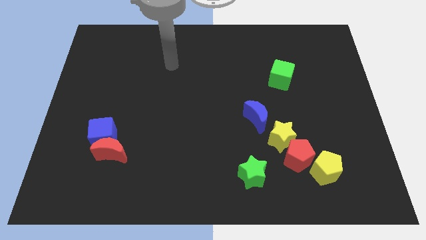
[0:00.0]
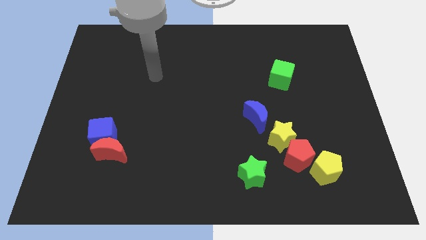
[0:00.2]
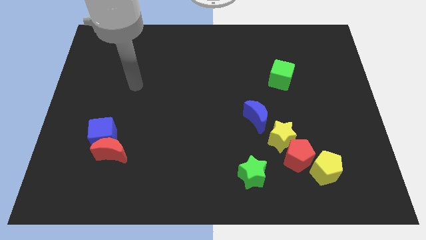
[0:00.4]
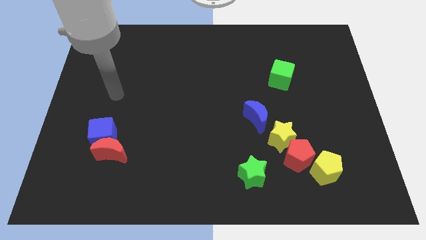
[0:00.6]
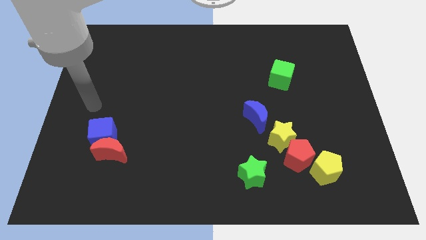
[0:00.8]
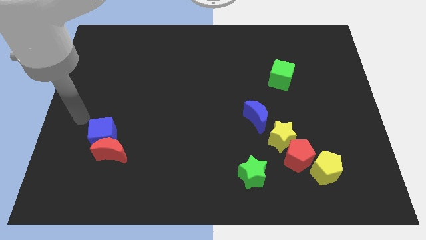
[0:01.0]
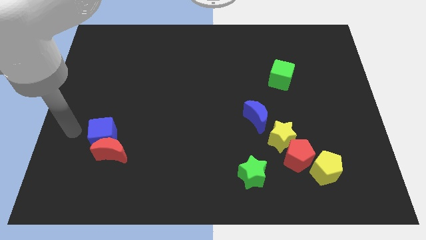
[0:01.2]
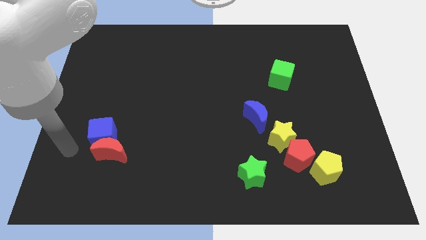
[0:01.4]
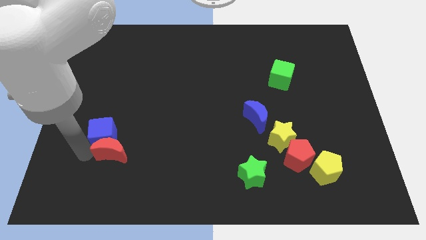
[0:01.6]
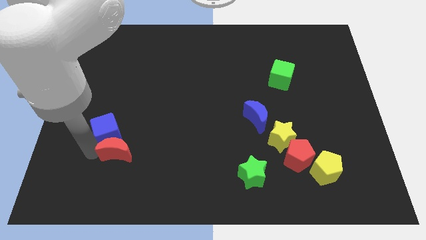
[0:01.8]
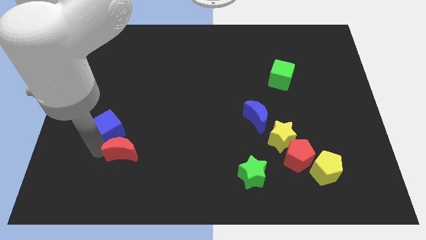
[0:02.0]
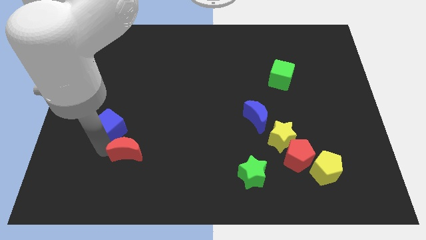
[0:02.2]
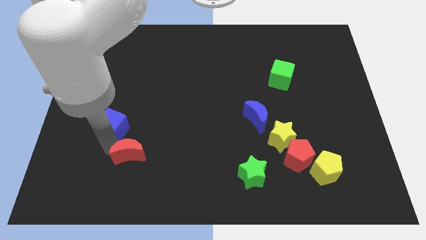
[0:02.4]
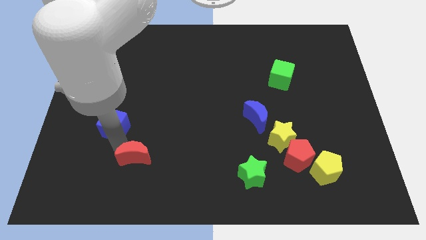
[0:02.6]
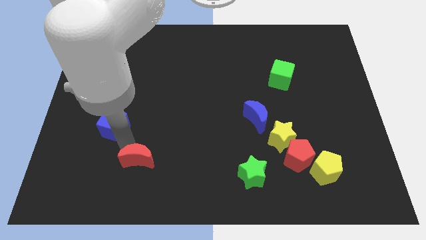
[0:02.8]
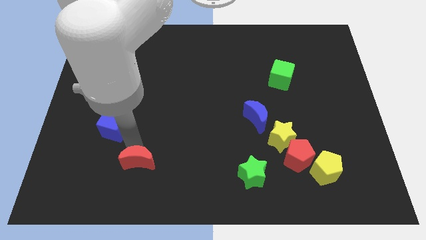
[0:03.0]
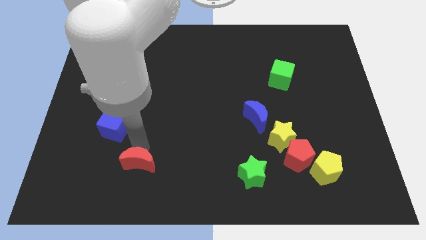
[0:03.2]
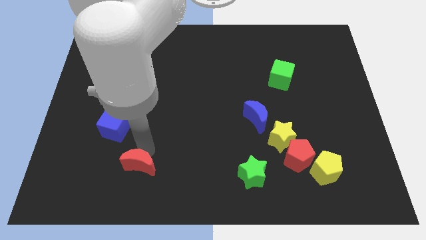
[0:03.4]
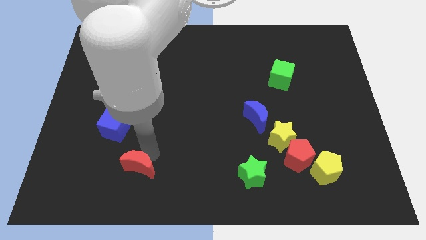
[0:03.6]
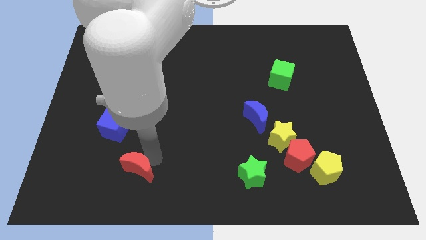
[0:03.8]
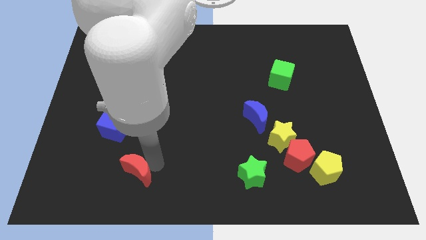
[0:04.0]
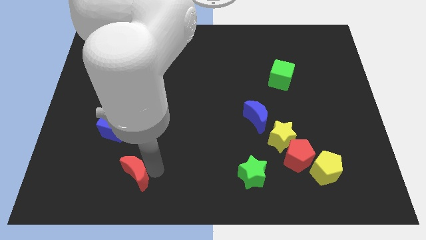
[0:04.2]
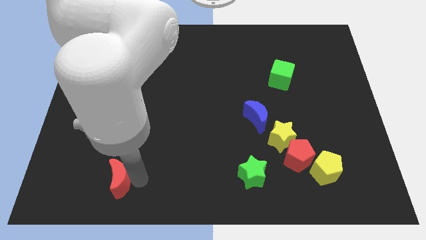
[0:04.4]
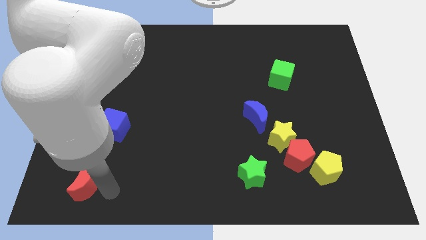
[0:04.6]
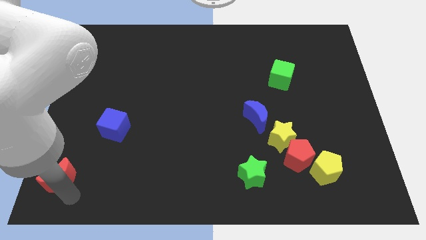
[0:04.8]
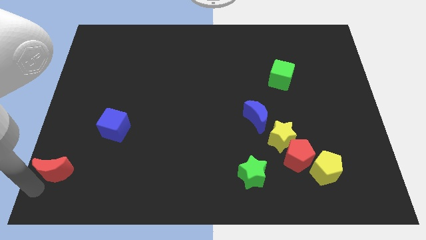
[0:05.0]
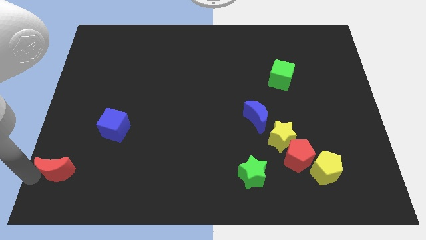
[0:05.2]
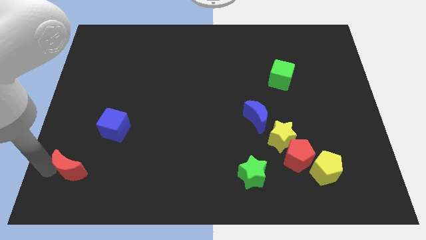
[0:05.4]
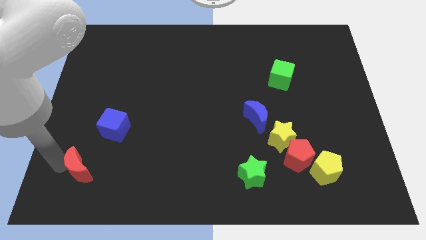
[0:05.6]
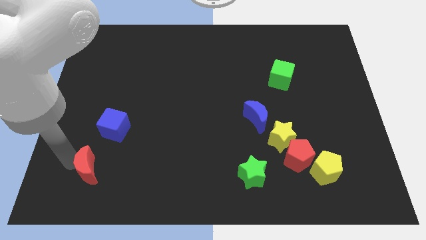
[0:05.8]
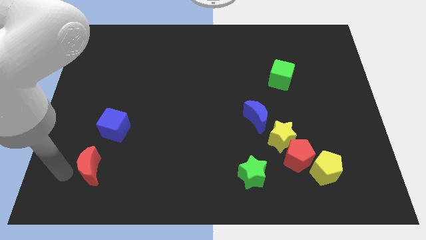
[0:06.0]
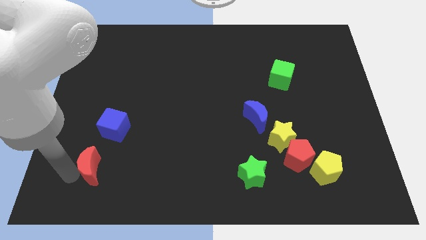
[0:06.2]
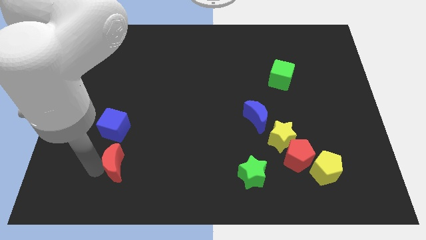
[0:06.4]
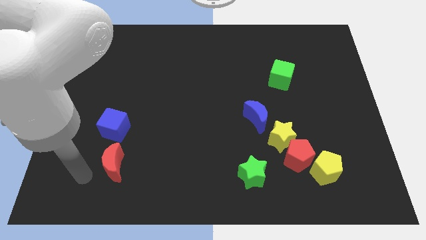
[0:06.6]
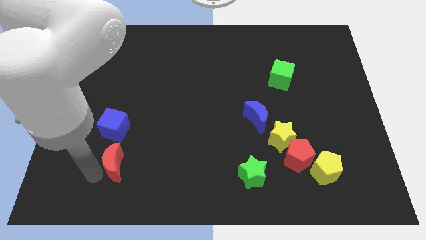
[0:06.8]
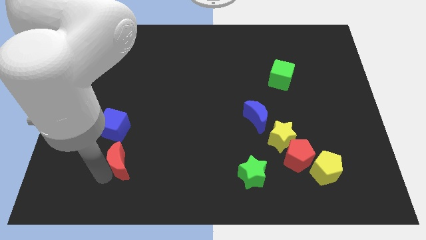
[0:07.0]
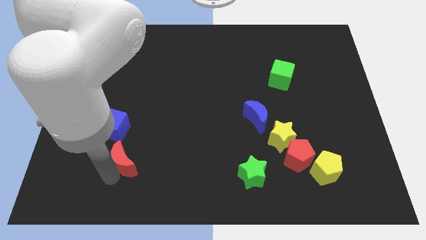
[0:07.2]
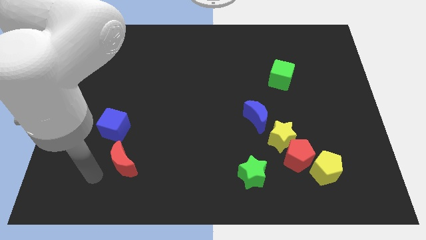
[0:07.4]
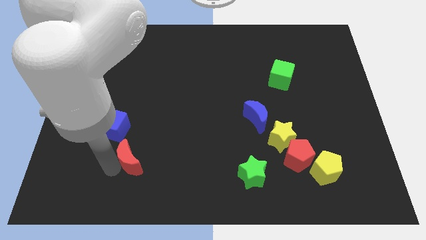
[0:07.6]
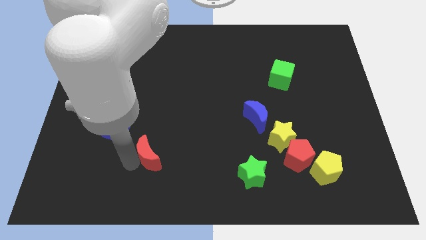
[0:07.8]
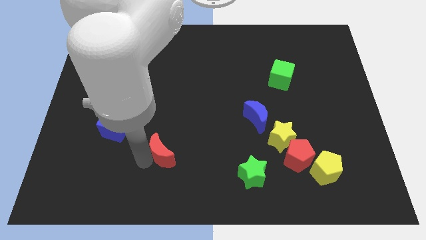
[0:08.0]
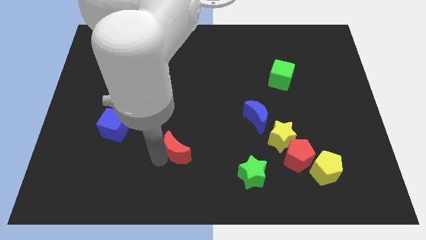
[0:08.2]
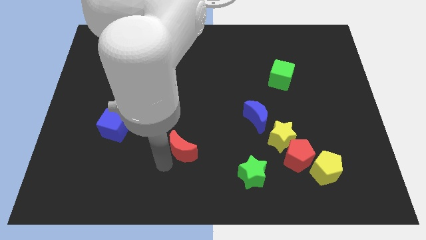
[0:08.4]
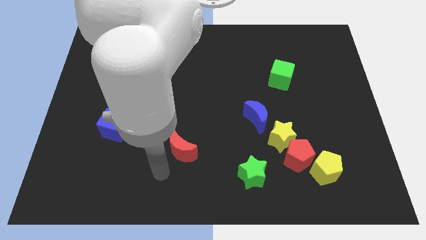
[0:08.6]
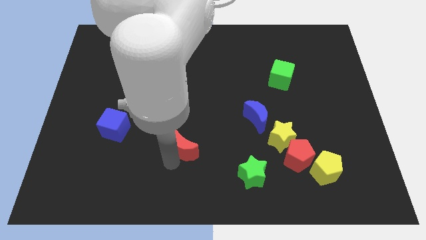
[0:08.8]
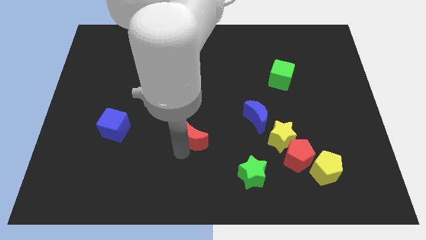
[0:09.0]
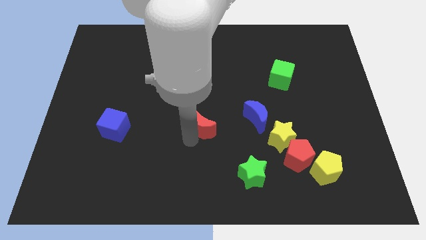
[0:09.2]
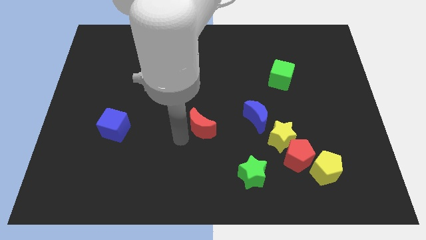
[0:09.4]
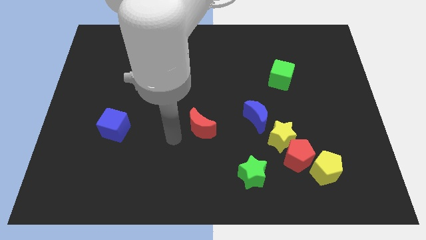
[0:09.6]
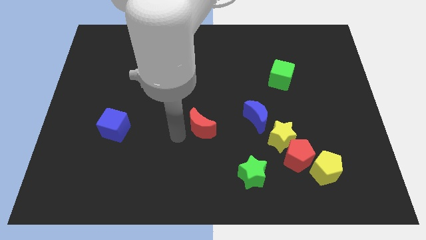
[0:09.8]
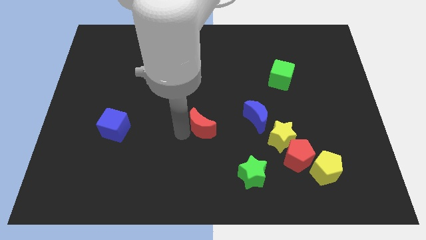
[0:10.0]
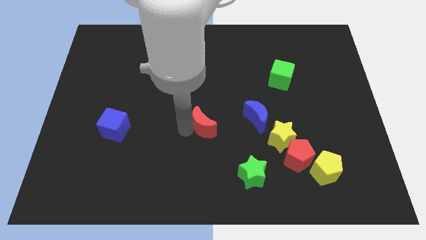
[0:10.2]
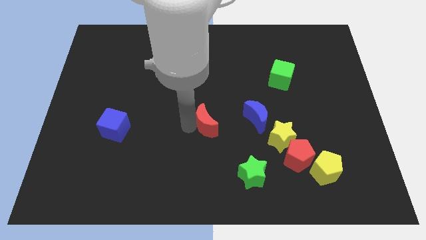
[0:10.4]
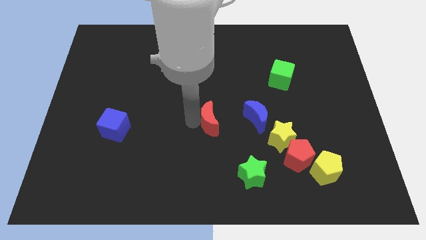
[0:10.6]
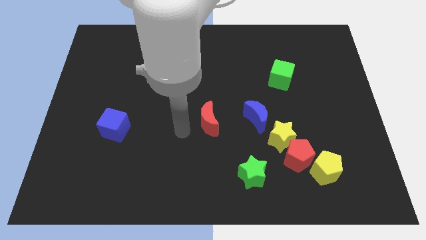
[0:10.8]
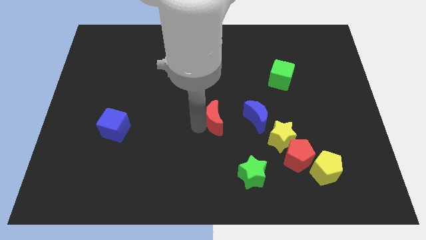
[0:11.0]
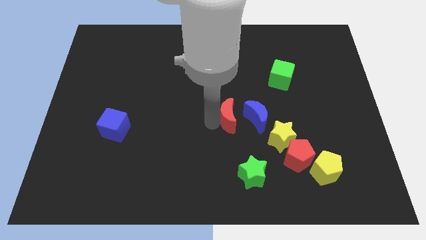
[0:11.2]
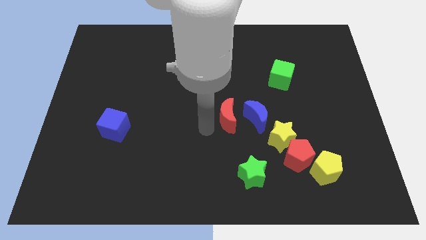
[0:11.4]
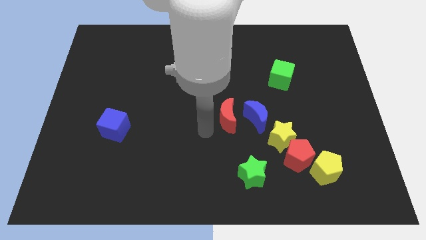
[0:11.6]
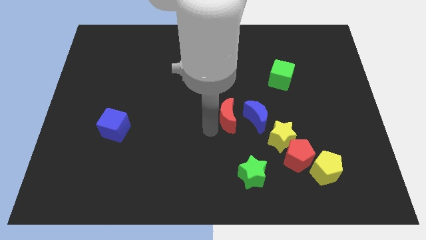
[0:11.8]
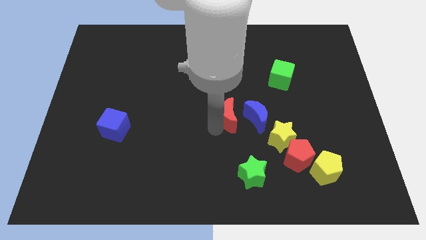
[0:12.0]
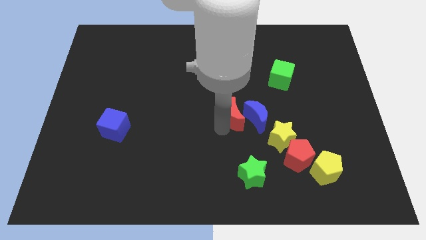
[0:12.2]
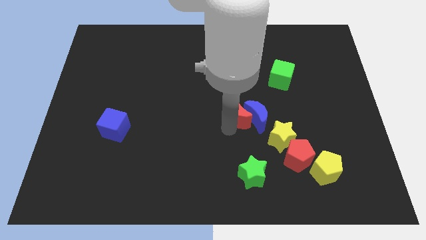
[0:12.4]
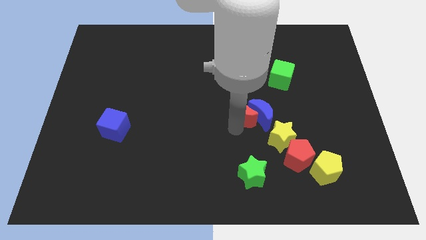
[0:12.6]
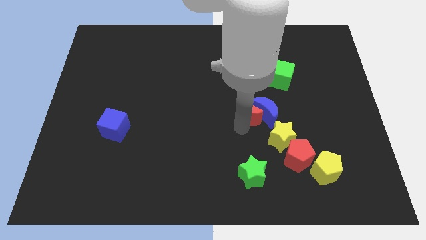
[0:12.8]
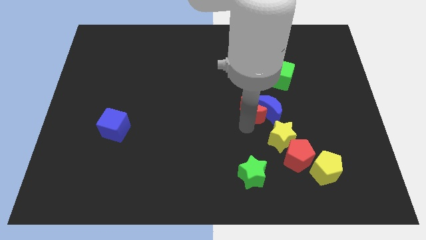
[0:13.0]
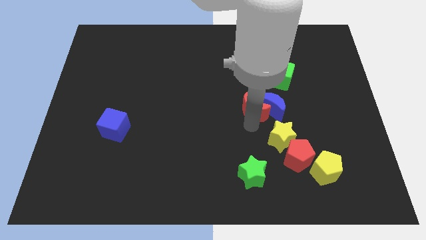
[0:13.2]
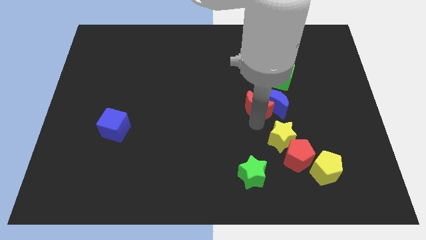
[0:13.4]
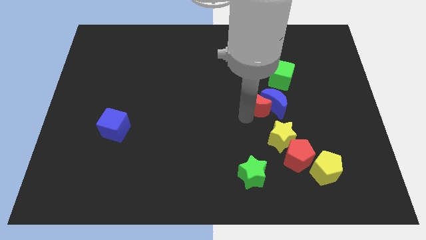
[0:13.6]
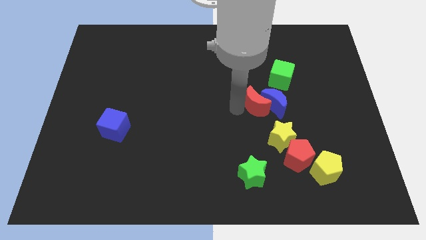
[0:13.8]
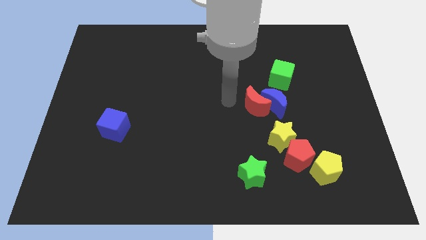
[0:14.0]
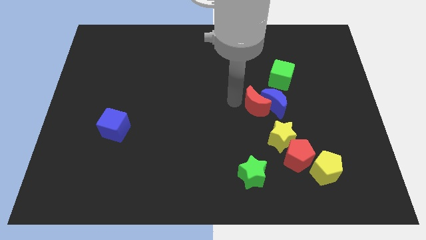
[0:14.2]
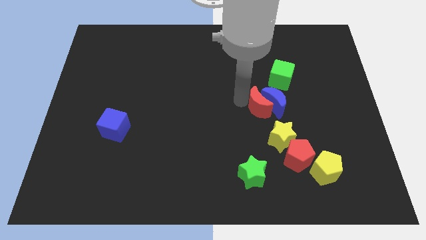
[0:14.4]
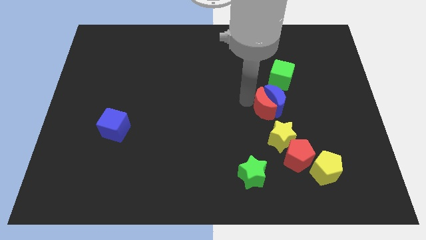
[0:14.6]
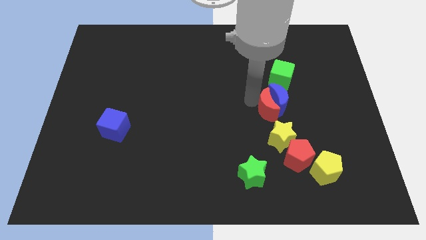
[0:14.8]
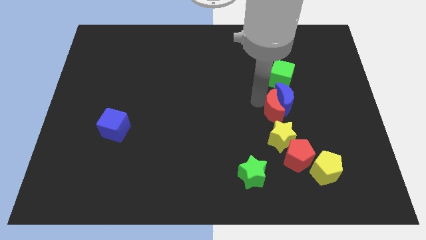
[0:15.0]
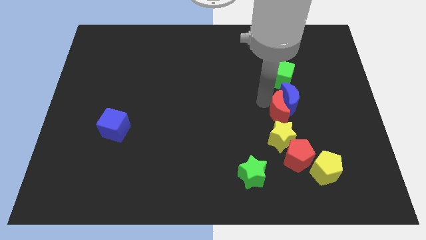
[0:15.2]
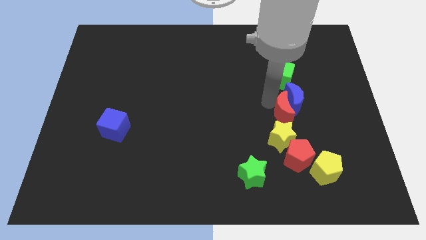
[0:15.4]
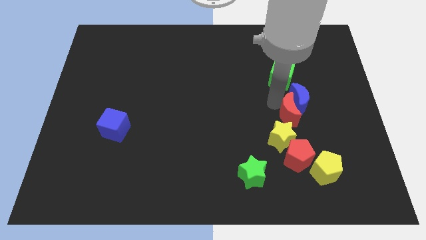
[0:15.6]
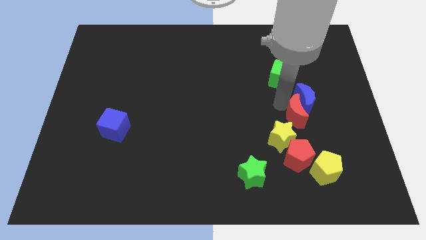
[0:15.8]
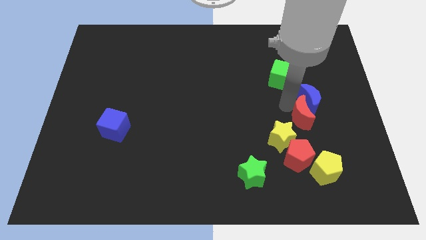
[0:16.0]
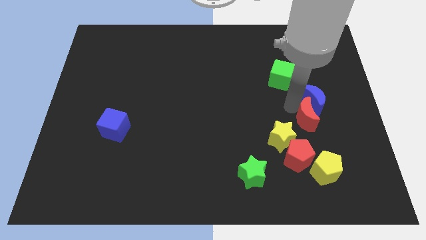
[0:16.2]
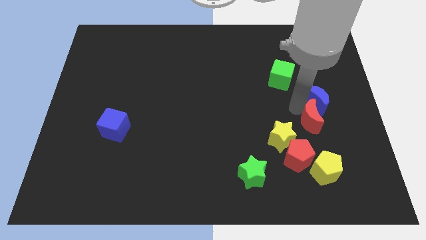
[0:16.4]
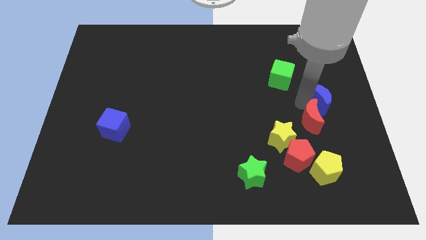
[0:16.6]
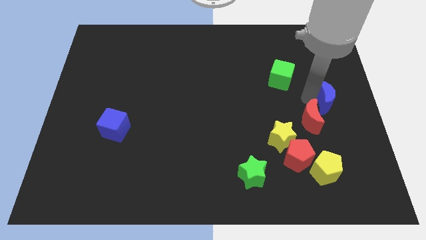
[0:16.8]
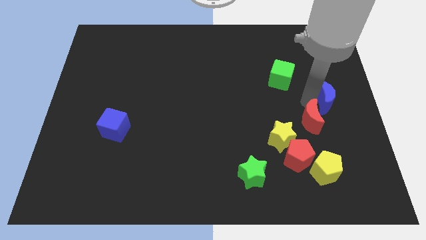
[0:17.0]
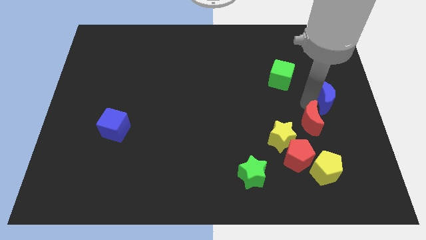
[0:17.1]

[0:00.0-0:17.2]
slide the red moon just right of the yellow star

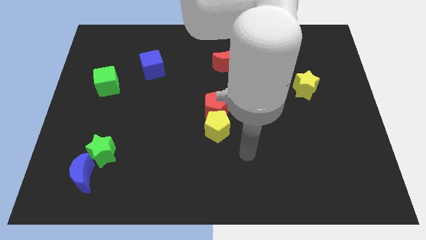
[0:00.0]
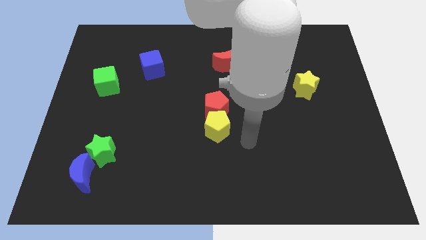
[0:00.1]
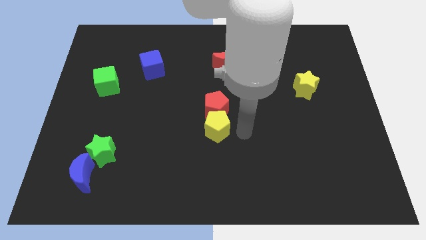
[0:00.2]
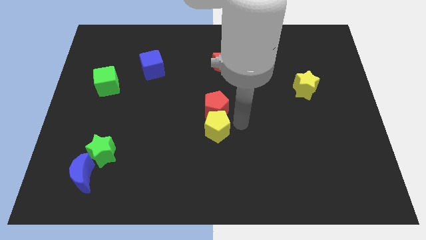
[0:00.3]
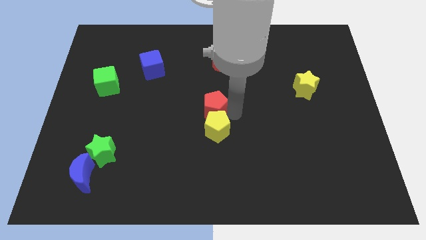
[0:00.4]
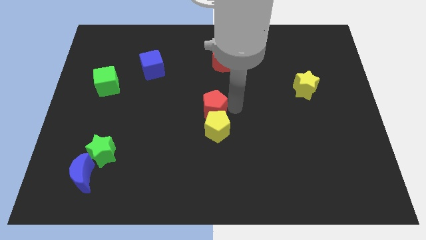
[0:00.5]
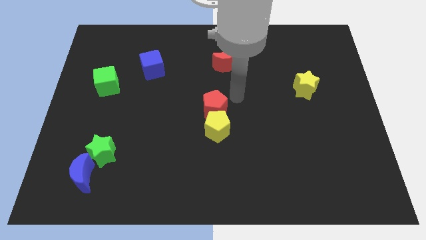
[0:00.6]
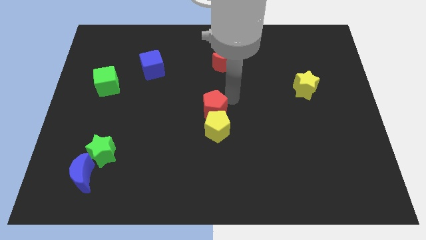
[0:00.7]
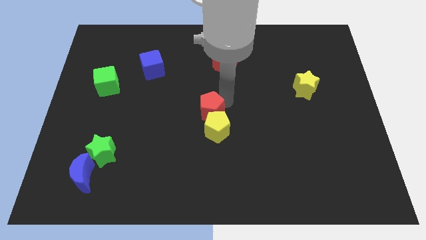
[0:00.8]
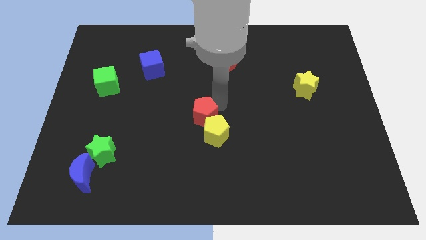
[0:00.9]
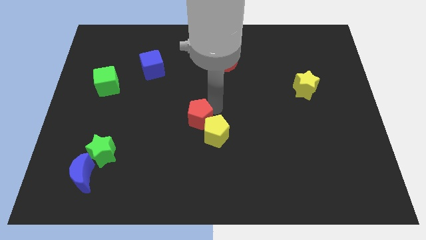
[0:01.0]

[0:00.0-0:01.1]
slide the red pentagon just left of the yellow pentagon
